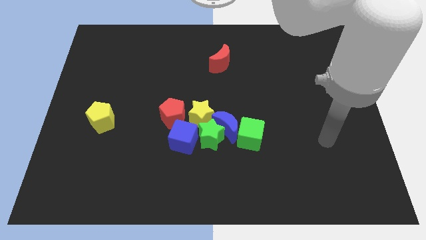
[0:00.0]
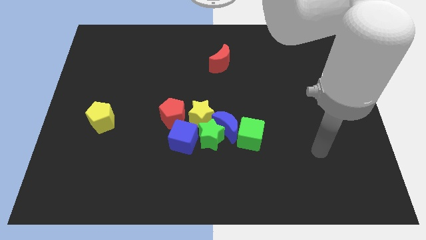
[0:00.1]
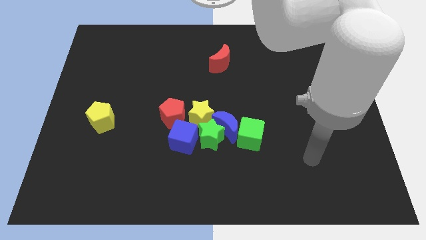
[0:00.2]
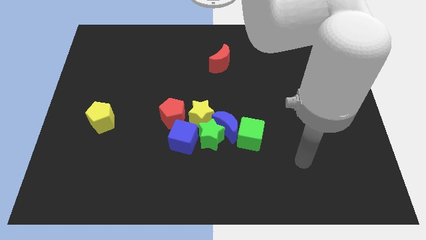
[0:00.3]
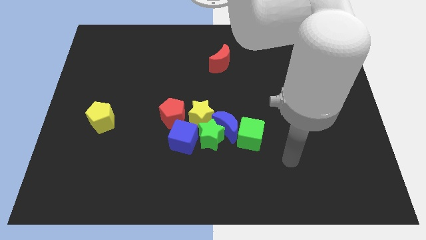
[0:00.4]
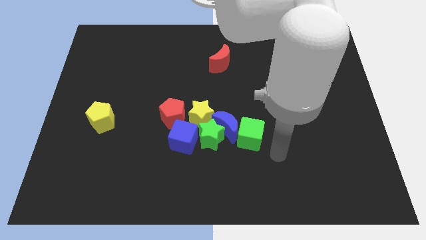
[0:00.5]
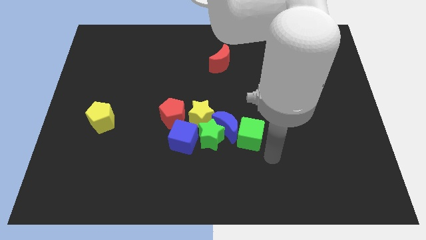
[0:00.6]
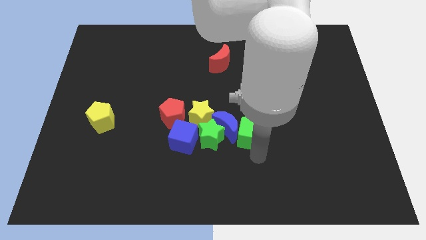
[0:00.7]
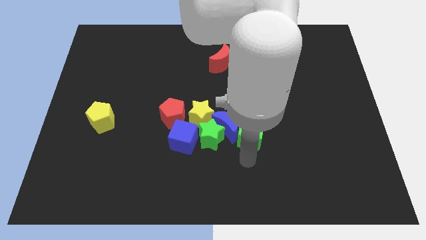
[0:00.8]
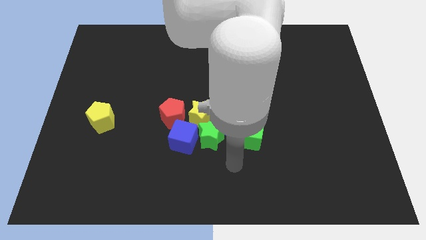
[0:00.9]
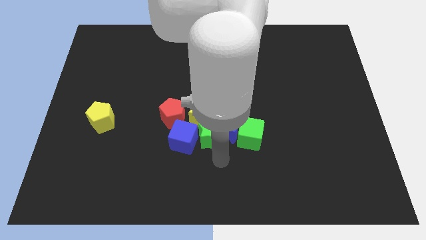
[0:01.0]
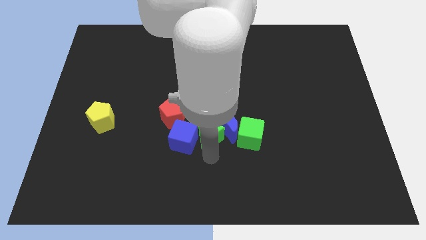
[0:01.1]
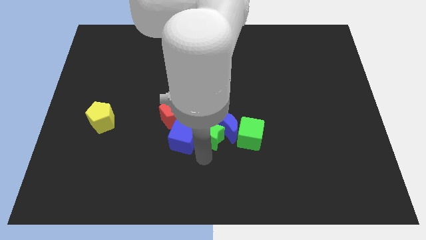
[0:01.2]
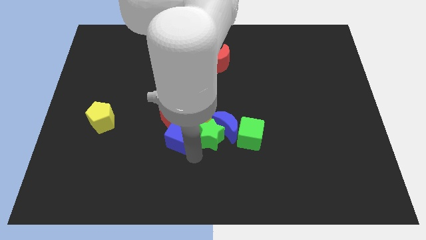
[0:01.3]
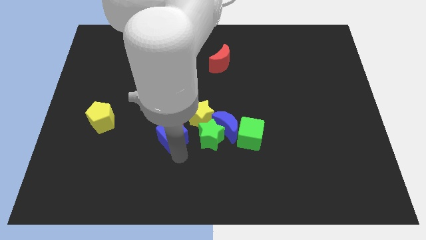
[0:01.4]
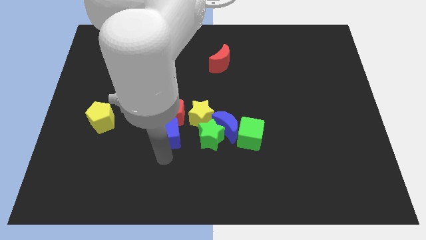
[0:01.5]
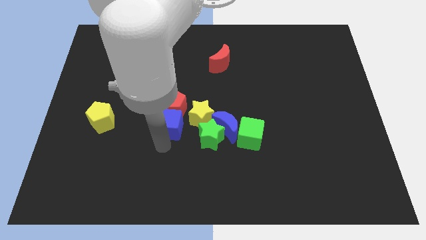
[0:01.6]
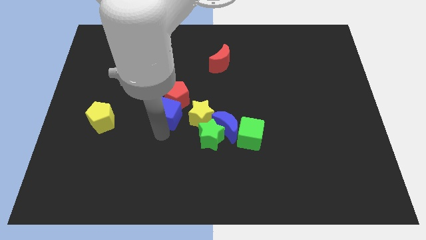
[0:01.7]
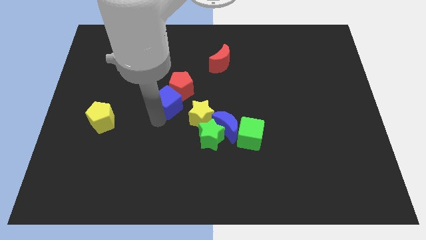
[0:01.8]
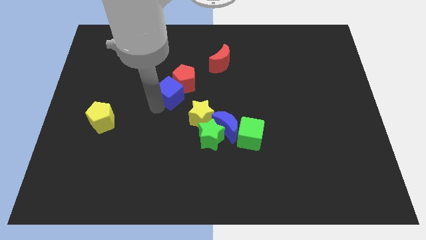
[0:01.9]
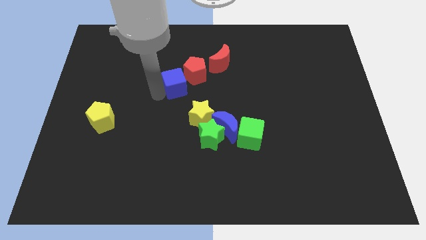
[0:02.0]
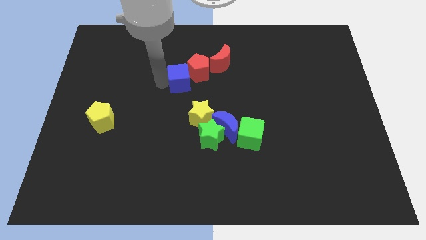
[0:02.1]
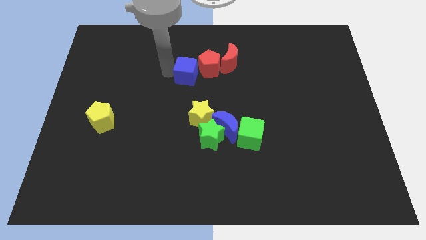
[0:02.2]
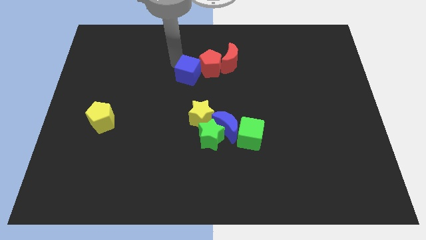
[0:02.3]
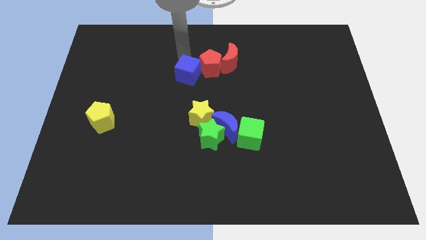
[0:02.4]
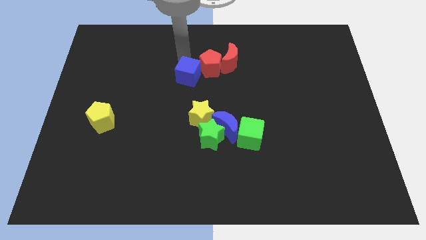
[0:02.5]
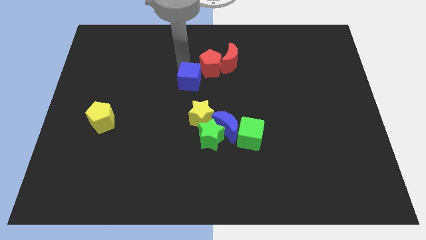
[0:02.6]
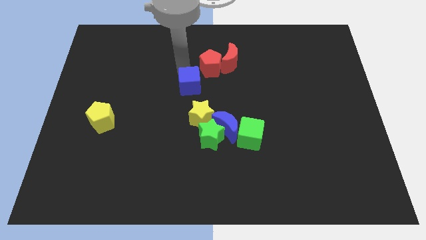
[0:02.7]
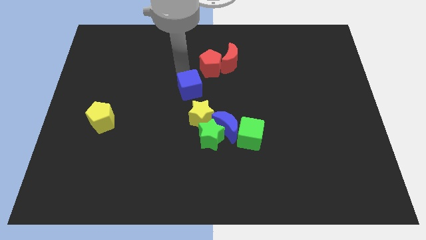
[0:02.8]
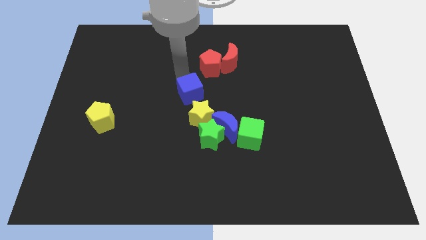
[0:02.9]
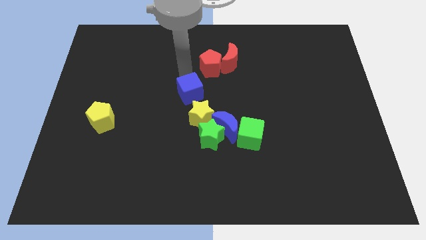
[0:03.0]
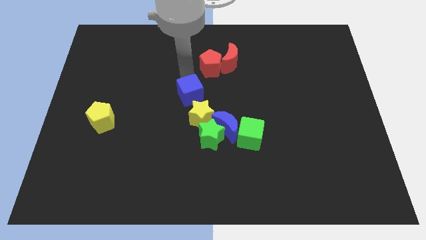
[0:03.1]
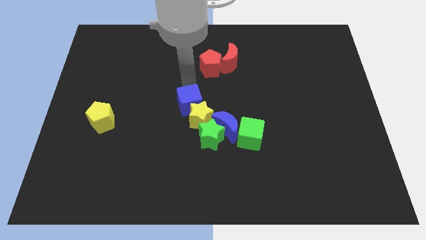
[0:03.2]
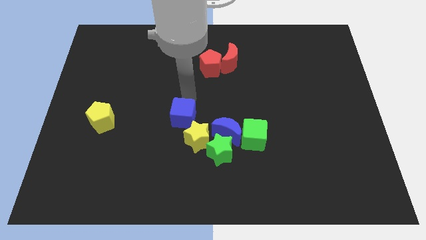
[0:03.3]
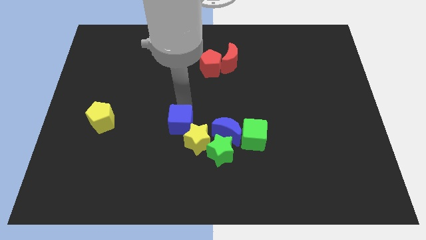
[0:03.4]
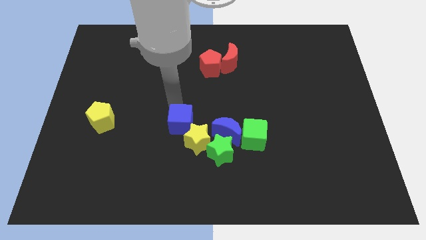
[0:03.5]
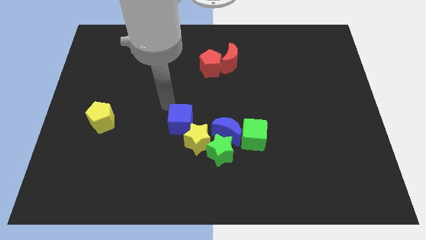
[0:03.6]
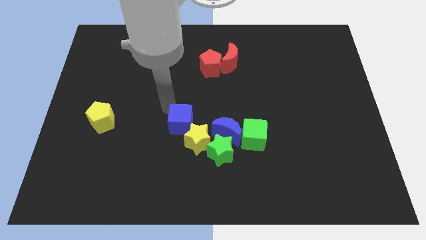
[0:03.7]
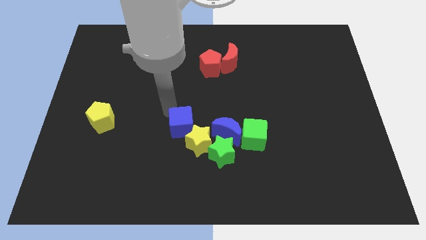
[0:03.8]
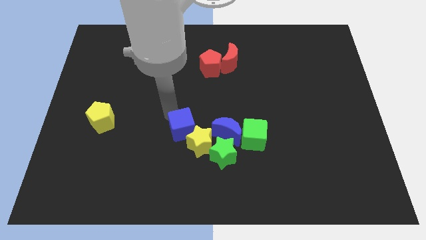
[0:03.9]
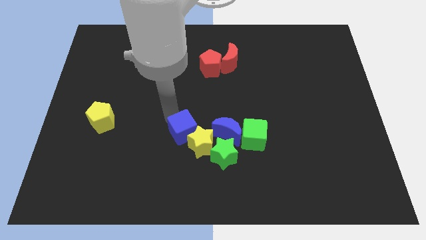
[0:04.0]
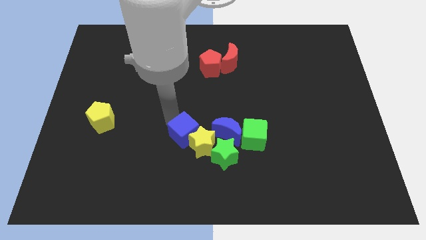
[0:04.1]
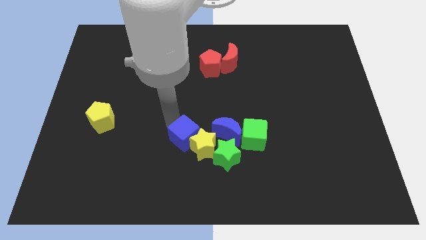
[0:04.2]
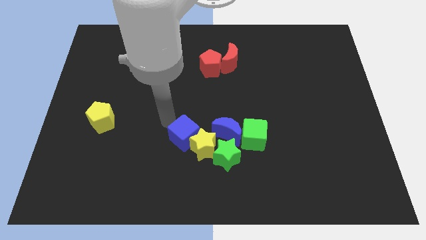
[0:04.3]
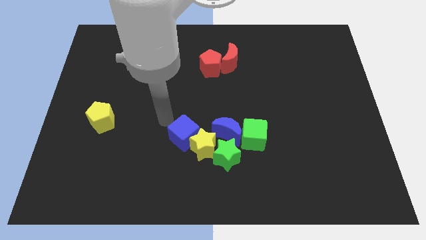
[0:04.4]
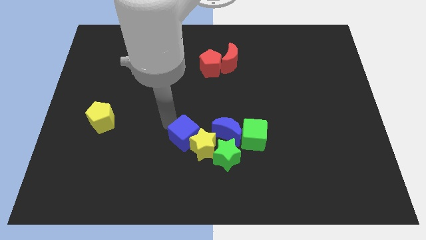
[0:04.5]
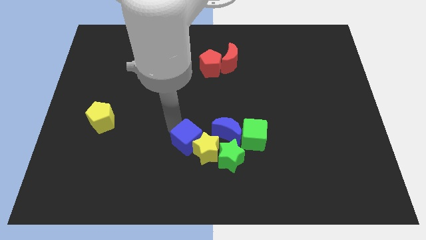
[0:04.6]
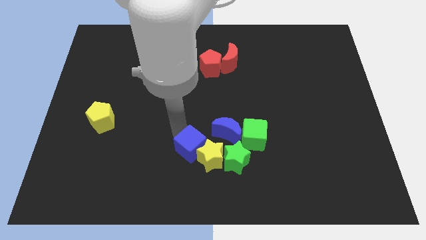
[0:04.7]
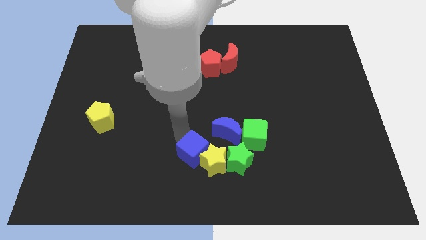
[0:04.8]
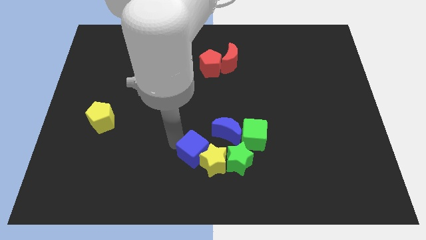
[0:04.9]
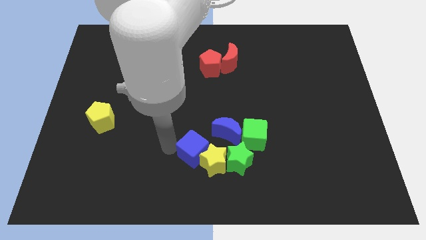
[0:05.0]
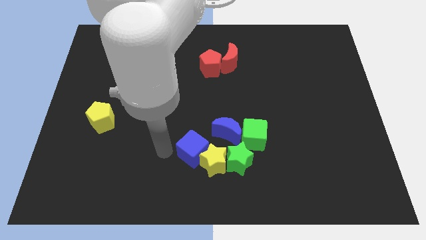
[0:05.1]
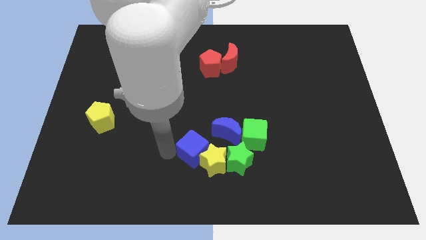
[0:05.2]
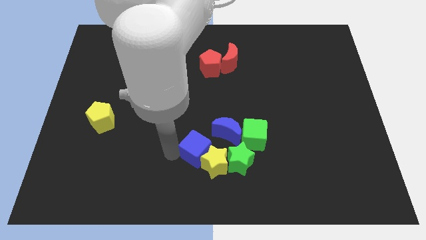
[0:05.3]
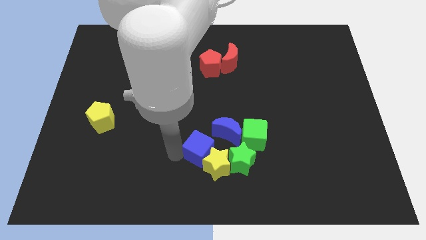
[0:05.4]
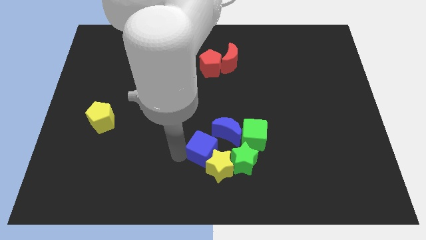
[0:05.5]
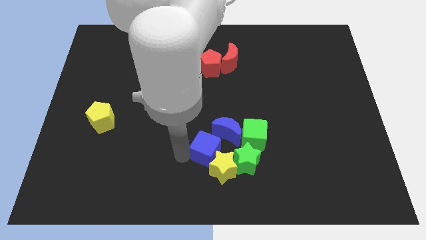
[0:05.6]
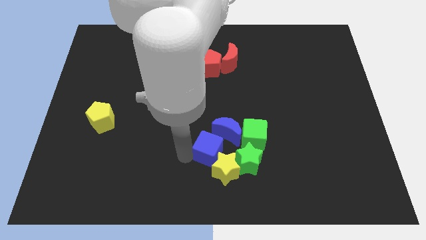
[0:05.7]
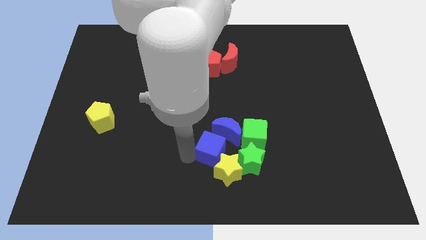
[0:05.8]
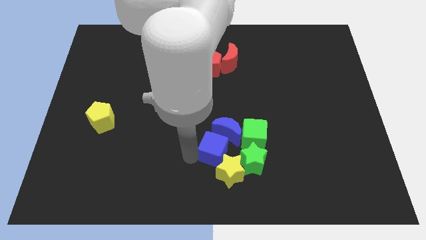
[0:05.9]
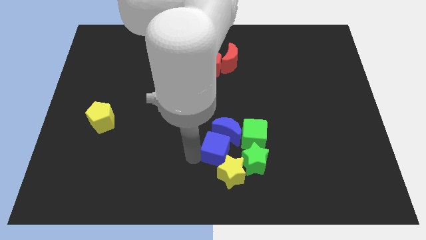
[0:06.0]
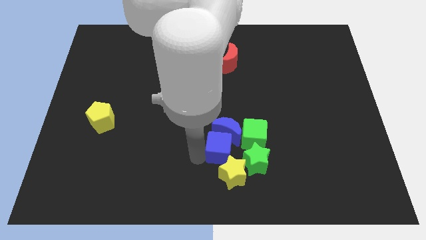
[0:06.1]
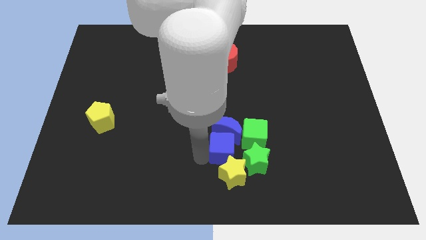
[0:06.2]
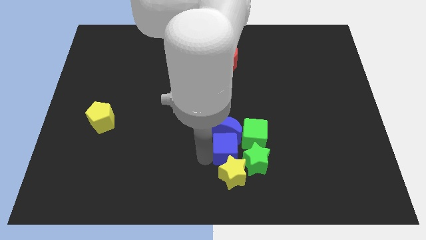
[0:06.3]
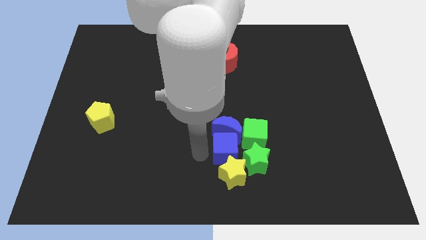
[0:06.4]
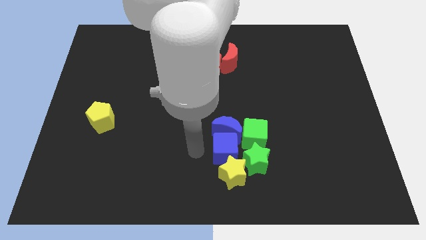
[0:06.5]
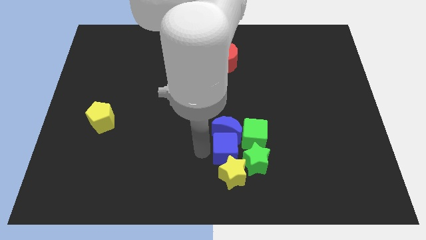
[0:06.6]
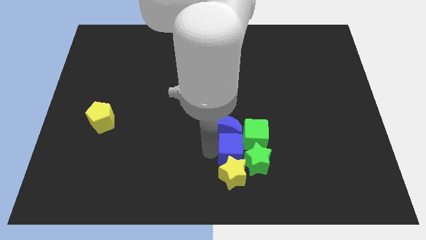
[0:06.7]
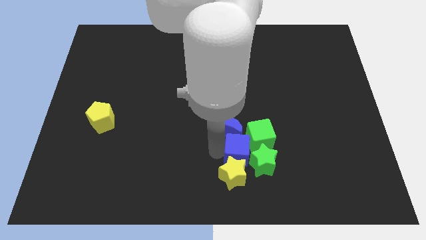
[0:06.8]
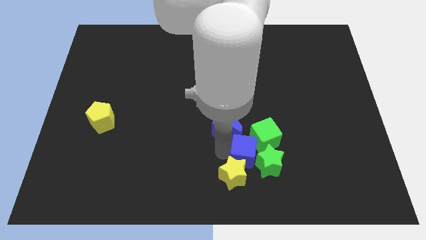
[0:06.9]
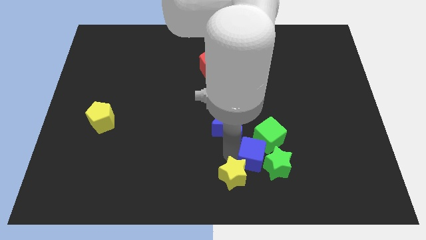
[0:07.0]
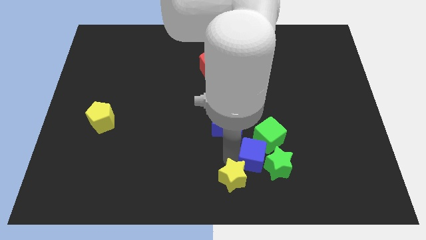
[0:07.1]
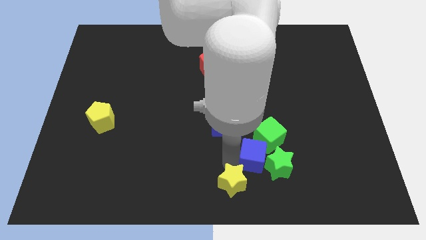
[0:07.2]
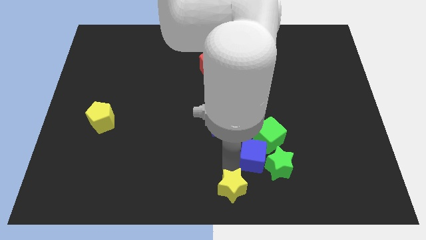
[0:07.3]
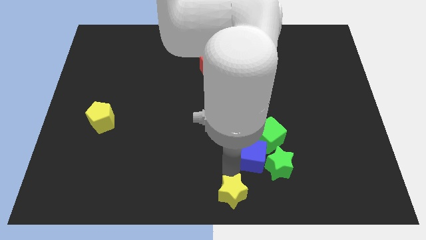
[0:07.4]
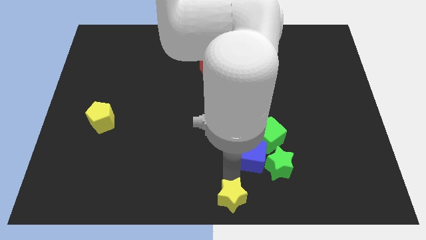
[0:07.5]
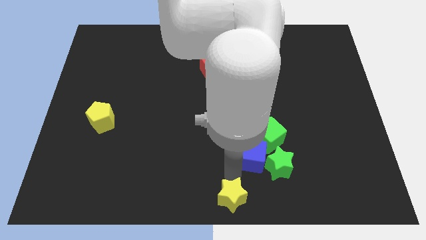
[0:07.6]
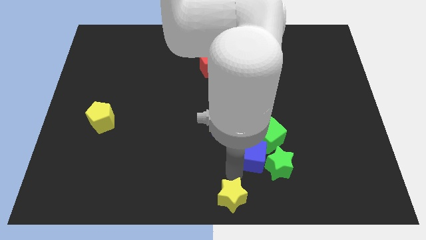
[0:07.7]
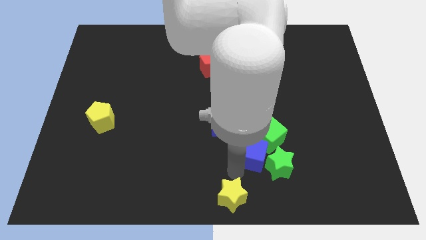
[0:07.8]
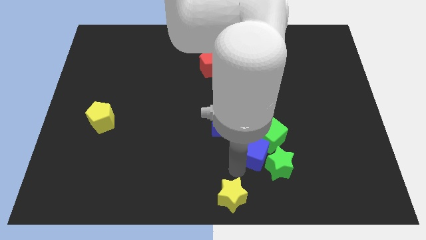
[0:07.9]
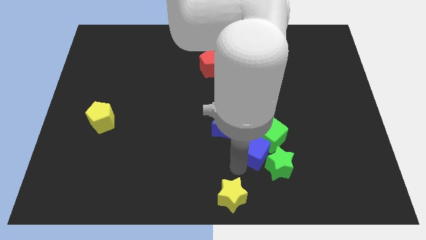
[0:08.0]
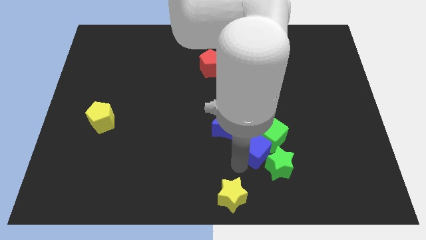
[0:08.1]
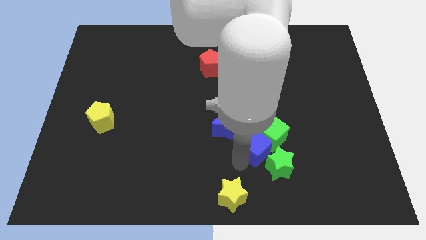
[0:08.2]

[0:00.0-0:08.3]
slide the blue cube just right of the blue moon
